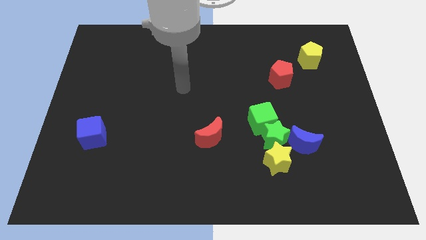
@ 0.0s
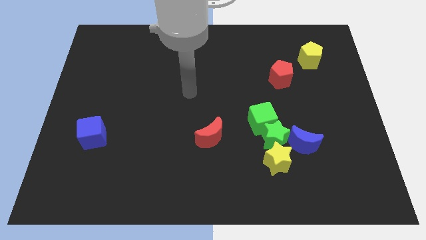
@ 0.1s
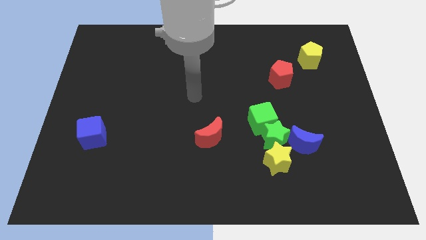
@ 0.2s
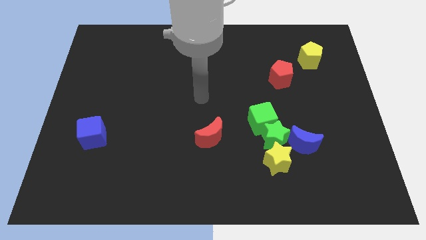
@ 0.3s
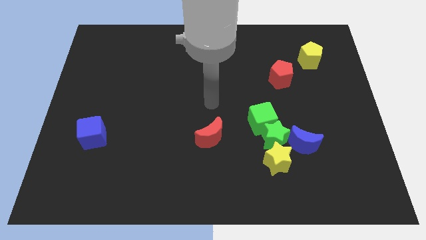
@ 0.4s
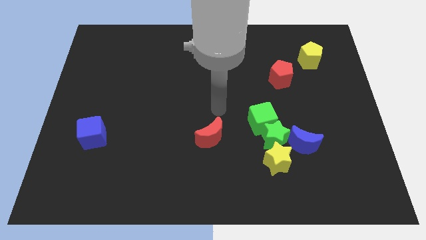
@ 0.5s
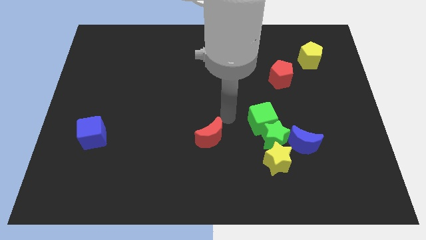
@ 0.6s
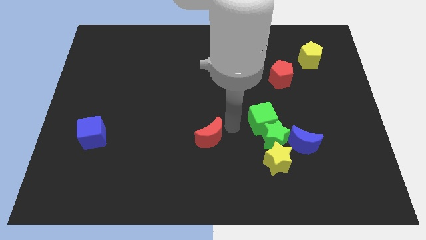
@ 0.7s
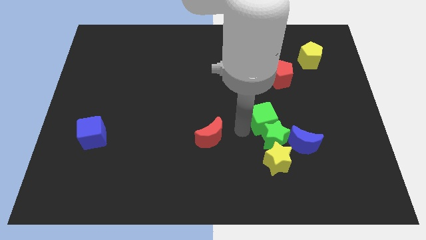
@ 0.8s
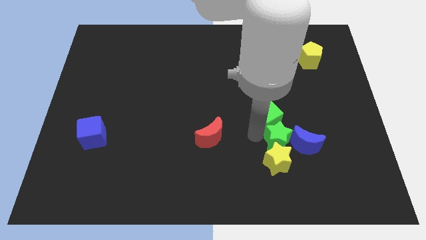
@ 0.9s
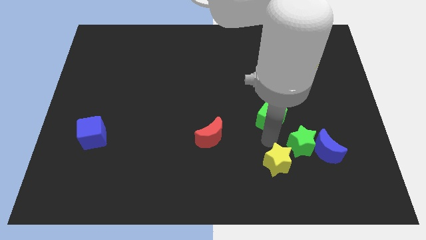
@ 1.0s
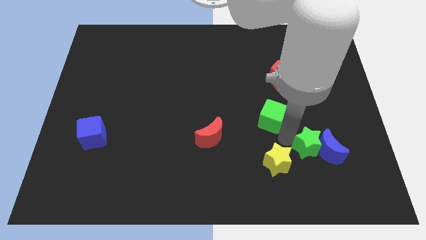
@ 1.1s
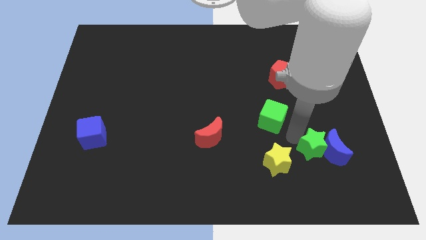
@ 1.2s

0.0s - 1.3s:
pull the green cube apart from the green star

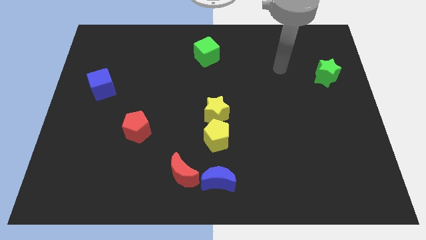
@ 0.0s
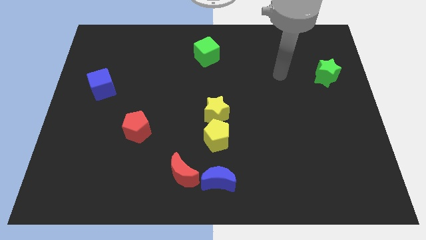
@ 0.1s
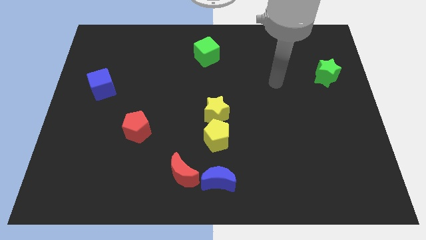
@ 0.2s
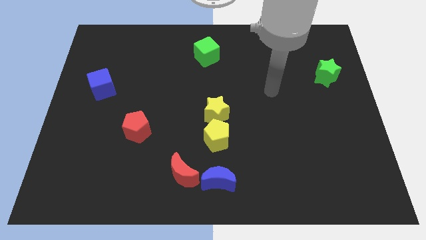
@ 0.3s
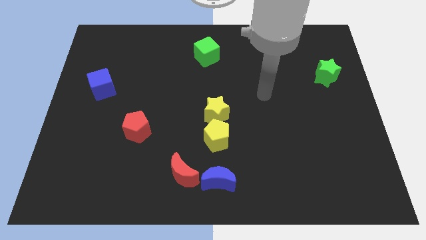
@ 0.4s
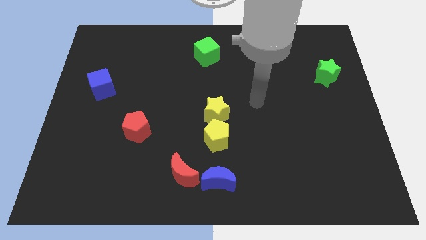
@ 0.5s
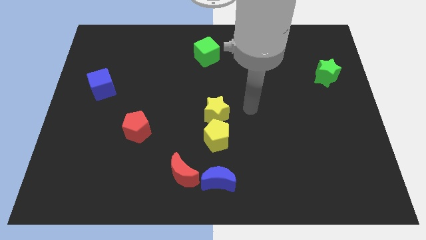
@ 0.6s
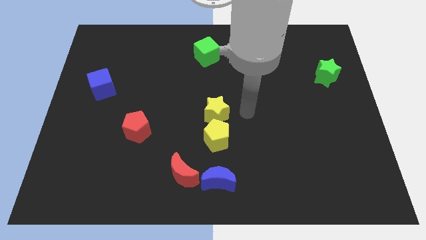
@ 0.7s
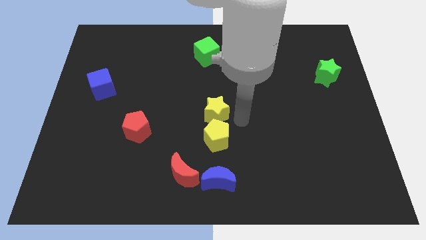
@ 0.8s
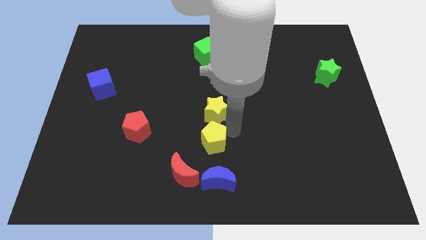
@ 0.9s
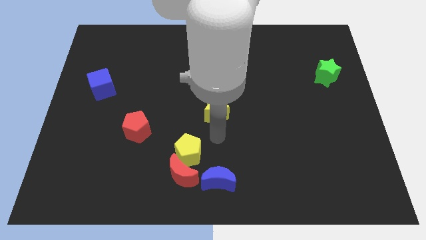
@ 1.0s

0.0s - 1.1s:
pull the yellow star apart from the yellow pentagon

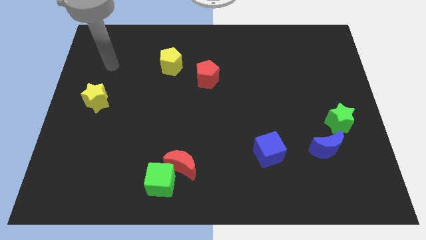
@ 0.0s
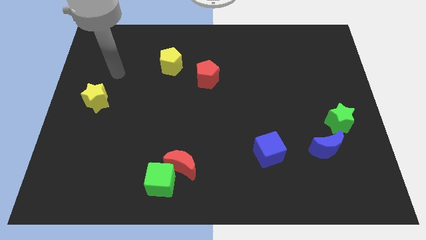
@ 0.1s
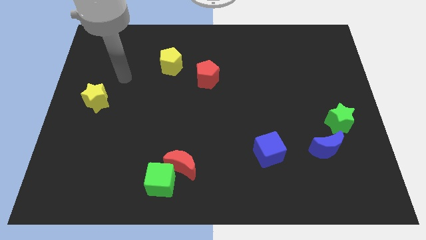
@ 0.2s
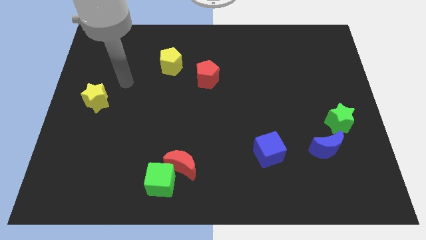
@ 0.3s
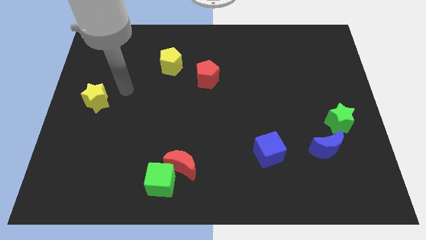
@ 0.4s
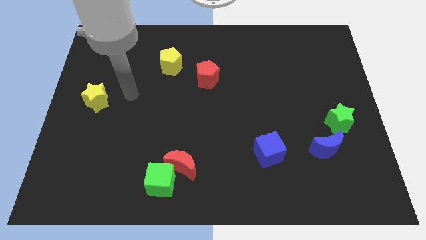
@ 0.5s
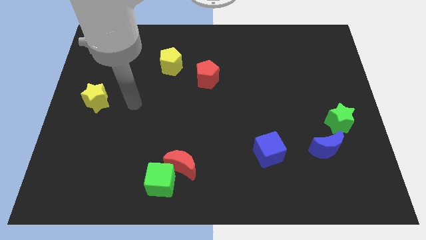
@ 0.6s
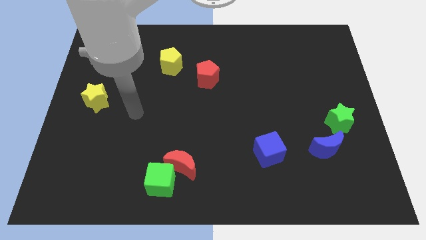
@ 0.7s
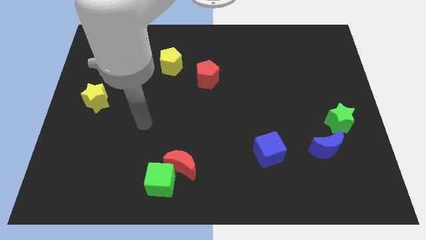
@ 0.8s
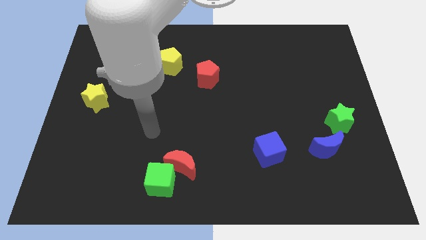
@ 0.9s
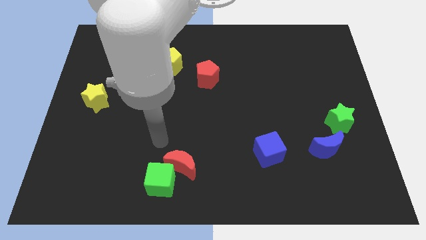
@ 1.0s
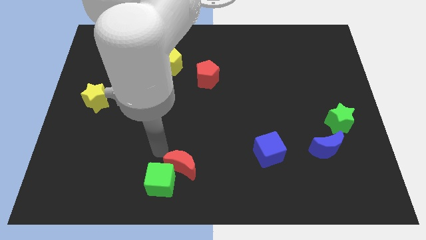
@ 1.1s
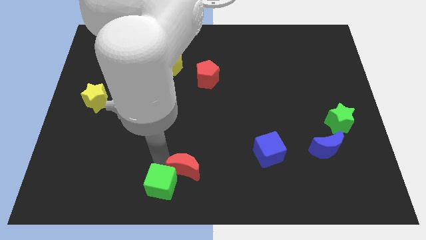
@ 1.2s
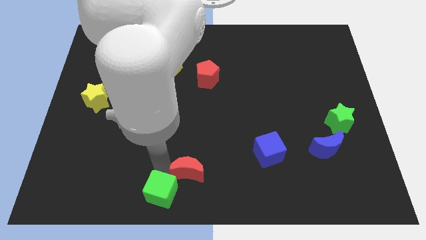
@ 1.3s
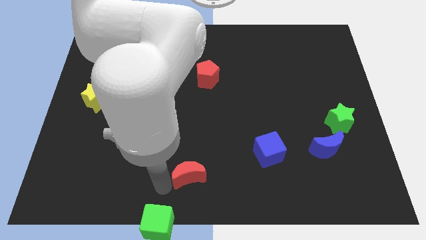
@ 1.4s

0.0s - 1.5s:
separate the red moon from the green cube

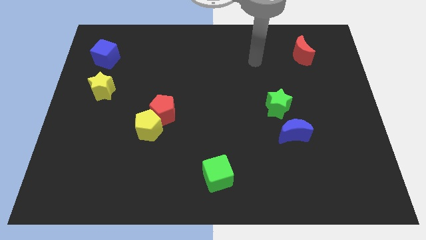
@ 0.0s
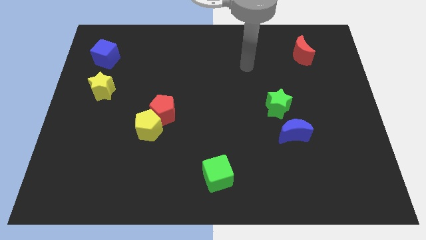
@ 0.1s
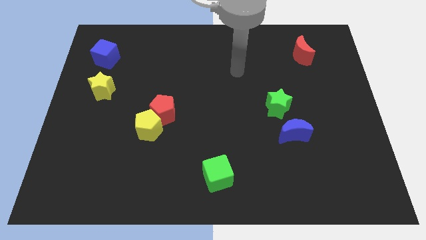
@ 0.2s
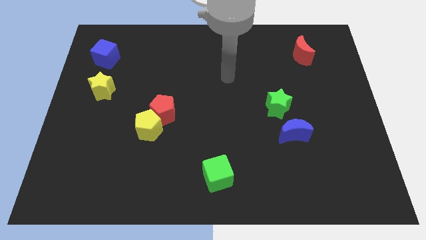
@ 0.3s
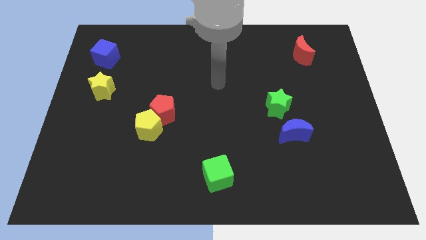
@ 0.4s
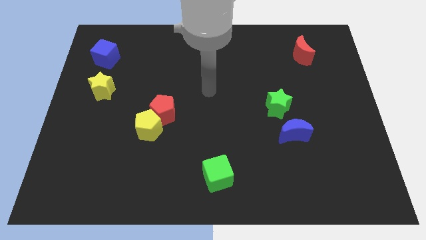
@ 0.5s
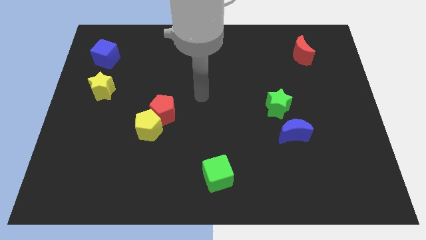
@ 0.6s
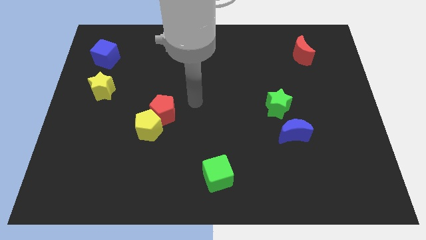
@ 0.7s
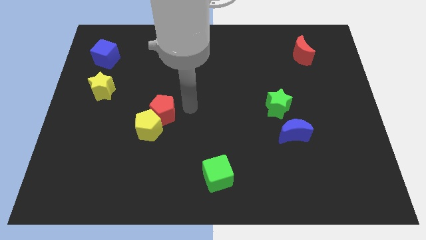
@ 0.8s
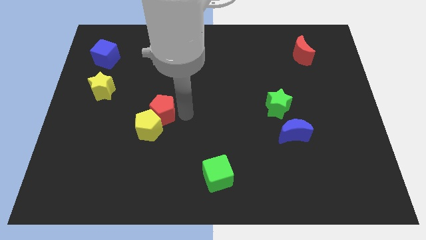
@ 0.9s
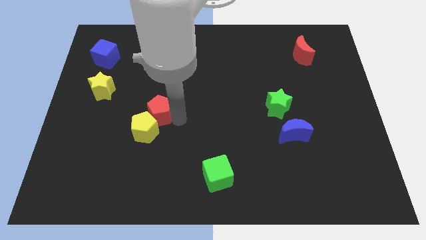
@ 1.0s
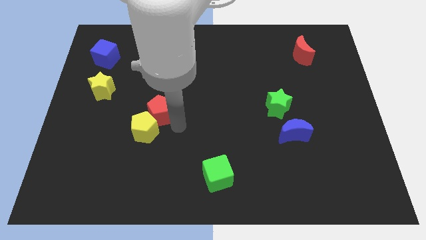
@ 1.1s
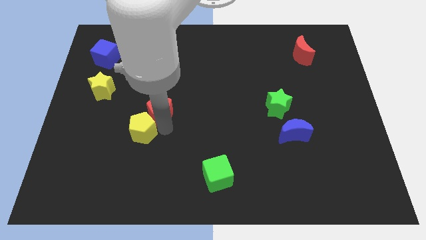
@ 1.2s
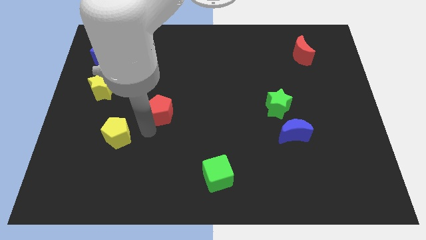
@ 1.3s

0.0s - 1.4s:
pull the red pentagon apart from the yellow pentagon

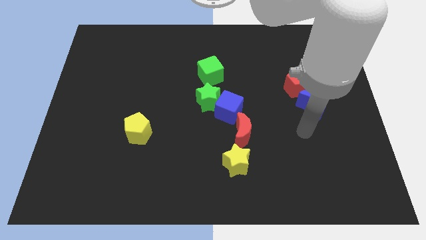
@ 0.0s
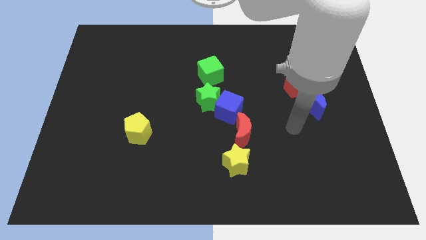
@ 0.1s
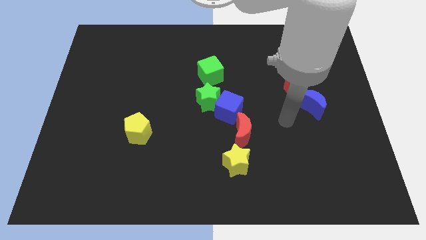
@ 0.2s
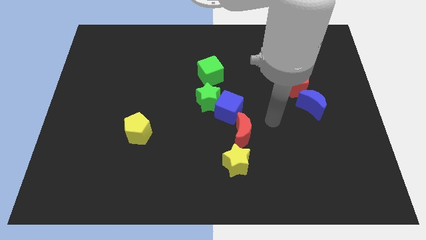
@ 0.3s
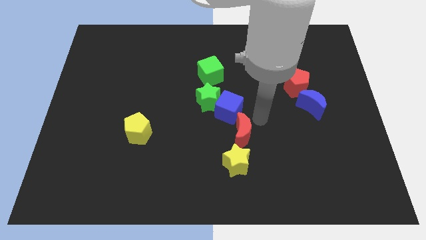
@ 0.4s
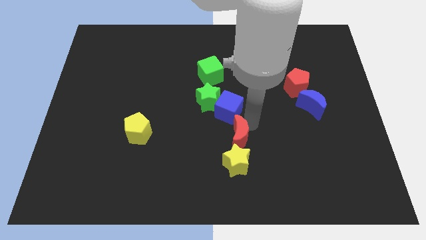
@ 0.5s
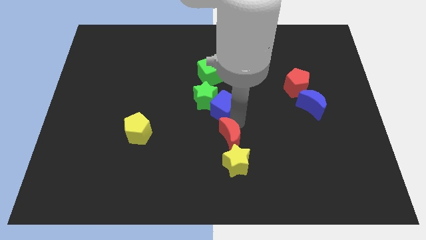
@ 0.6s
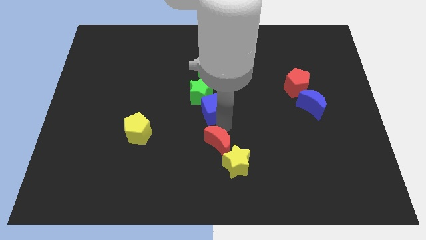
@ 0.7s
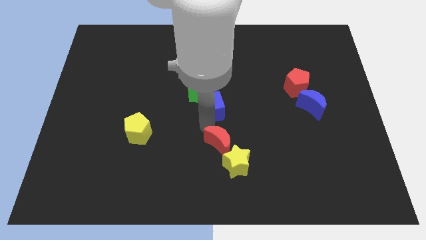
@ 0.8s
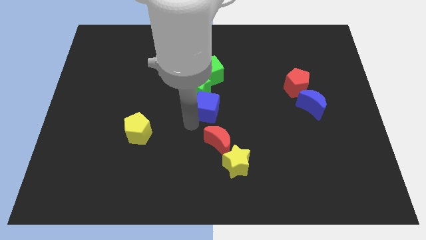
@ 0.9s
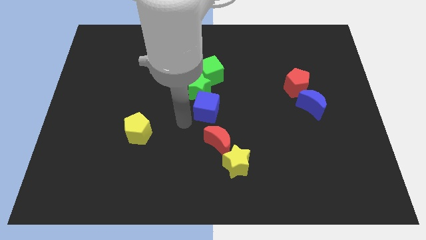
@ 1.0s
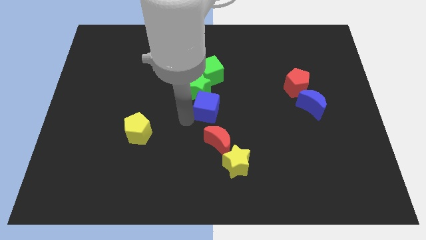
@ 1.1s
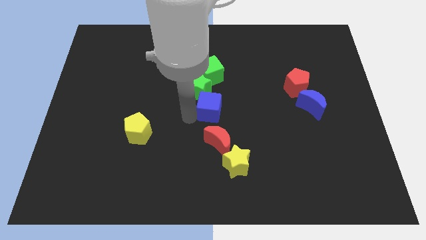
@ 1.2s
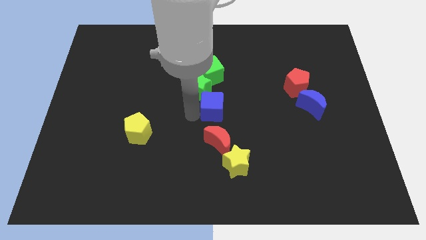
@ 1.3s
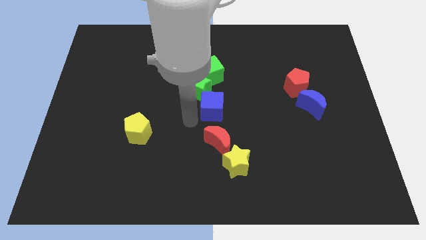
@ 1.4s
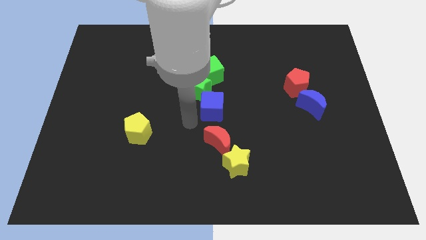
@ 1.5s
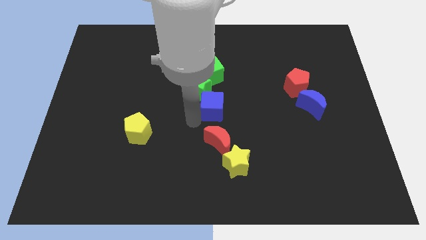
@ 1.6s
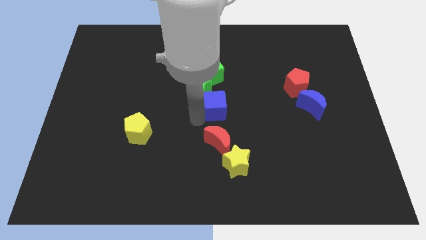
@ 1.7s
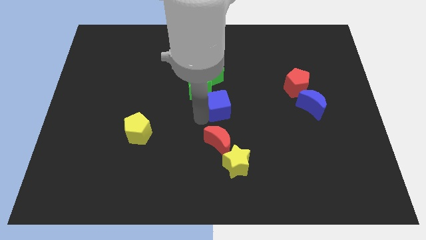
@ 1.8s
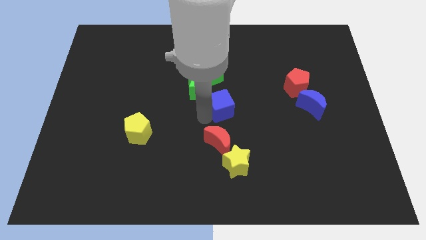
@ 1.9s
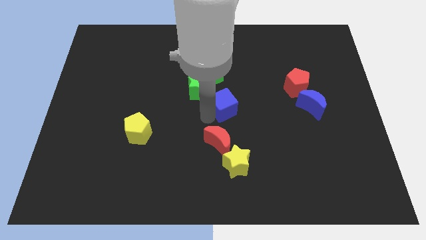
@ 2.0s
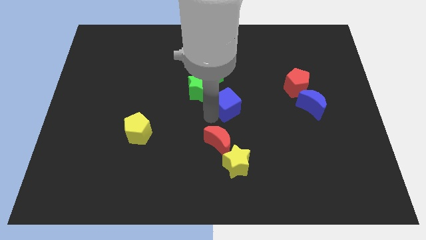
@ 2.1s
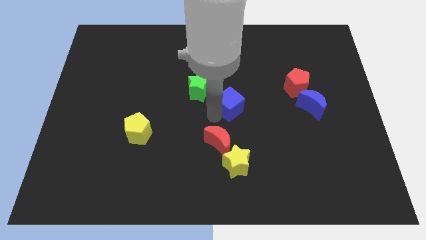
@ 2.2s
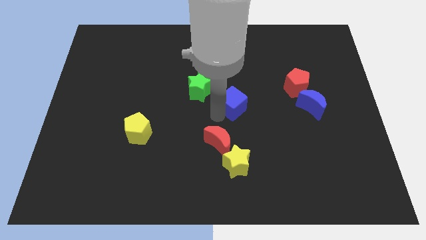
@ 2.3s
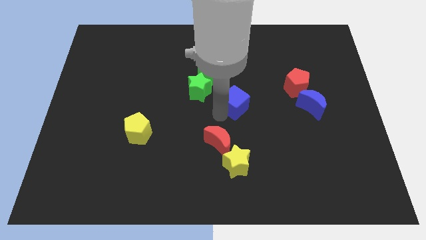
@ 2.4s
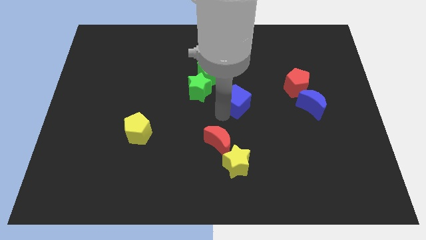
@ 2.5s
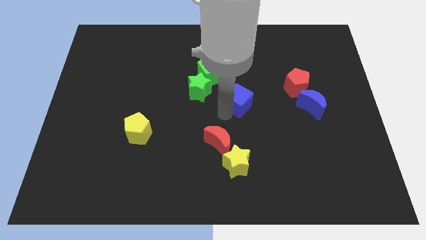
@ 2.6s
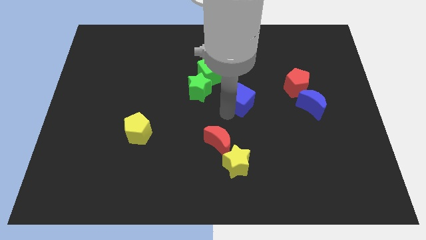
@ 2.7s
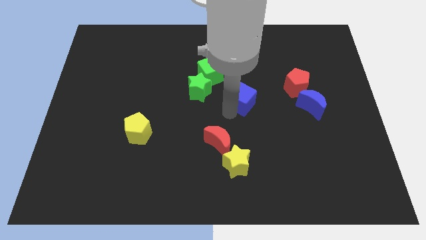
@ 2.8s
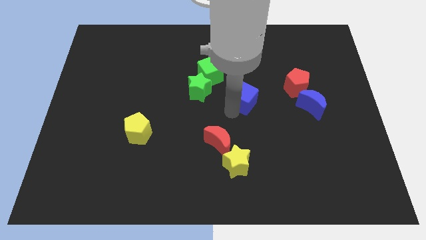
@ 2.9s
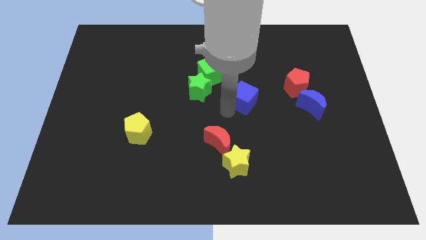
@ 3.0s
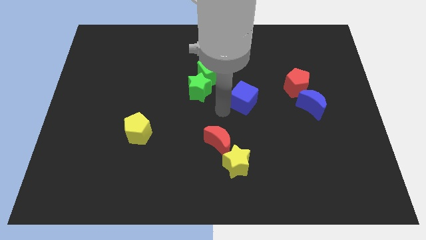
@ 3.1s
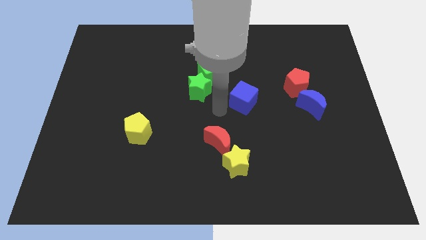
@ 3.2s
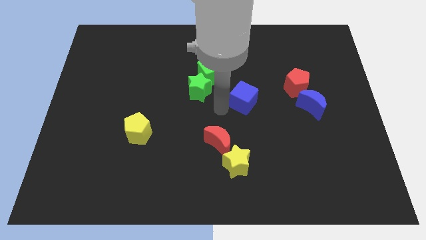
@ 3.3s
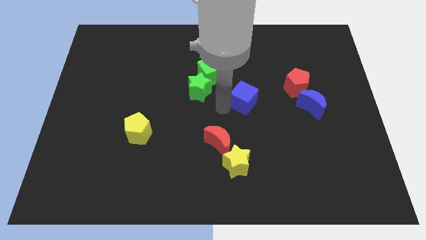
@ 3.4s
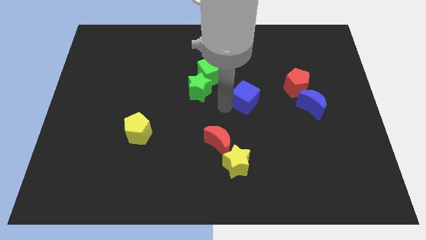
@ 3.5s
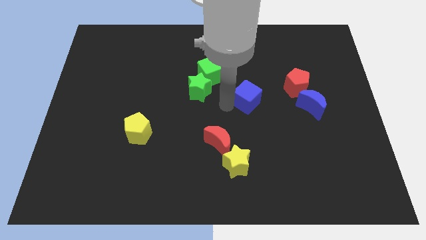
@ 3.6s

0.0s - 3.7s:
separate the blue cube from the green star and red moon

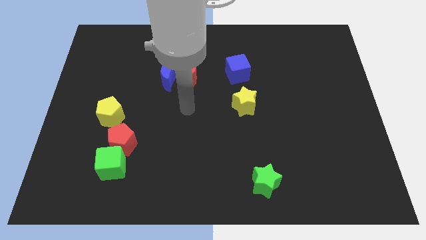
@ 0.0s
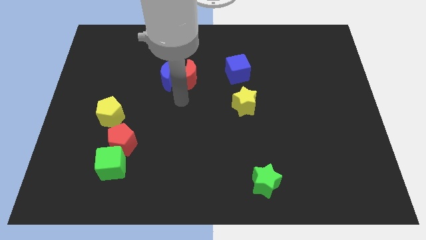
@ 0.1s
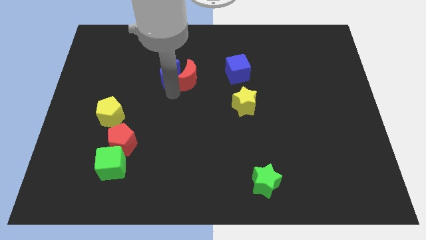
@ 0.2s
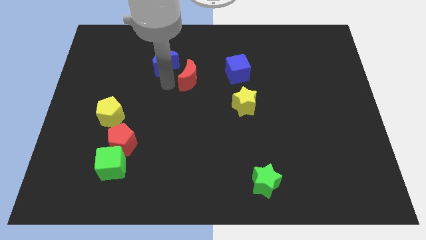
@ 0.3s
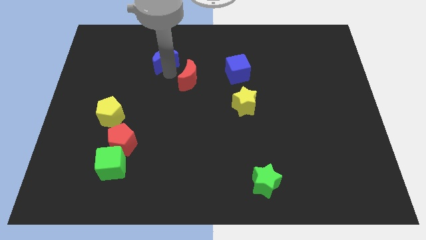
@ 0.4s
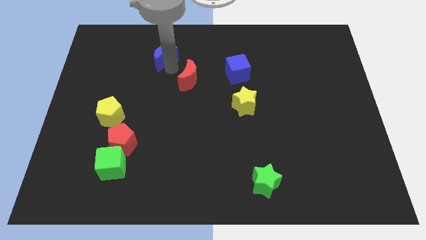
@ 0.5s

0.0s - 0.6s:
separate the red moon from the blue moon
